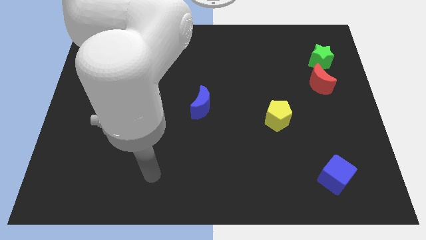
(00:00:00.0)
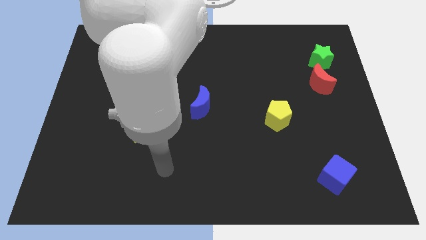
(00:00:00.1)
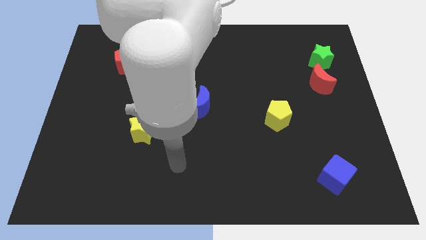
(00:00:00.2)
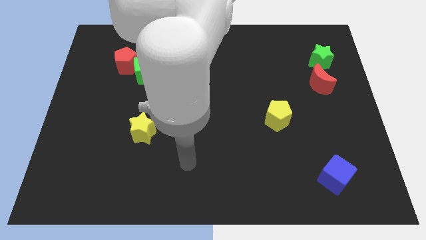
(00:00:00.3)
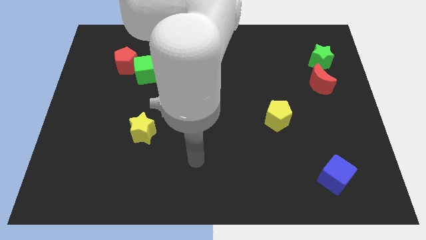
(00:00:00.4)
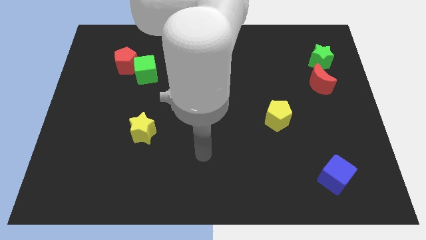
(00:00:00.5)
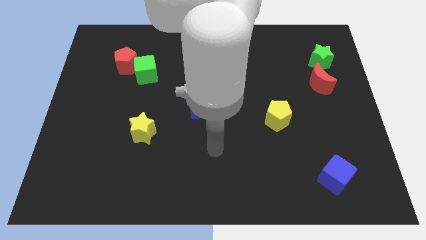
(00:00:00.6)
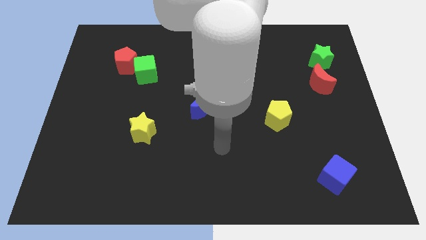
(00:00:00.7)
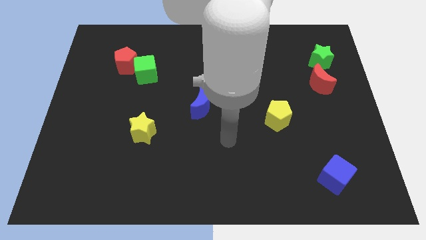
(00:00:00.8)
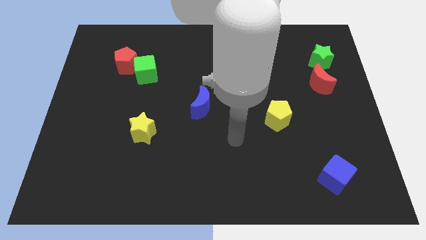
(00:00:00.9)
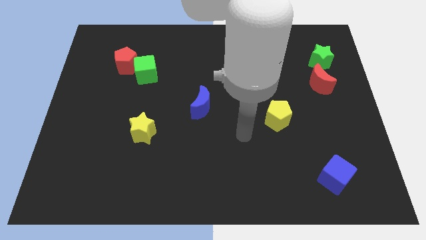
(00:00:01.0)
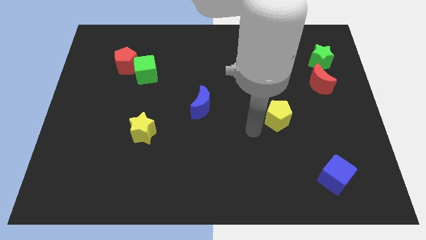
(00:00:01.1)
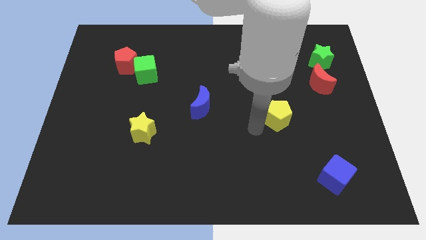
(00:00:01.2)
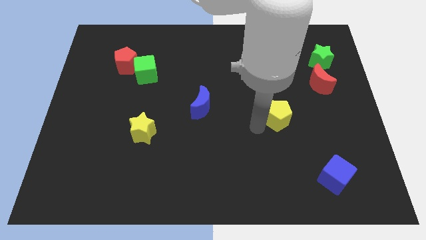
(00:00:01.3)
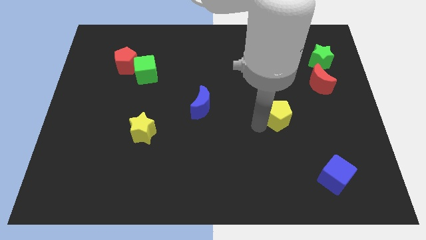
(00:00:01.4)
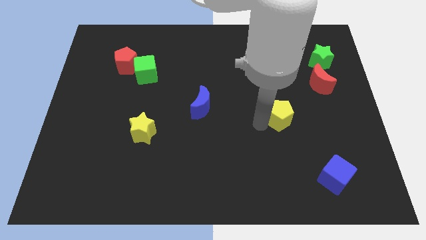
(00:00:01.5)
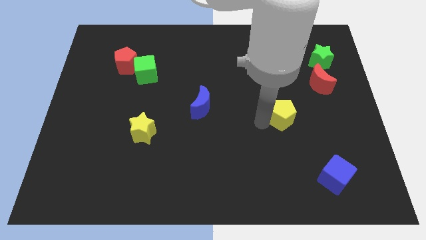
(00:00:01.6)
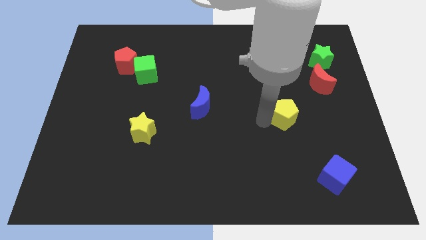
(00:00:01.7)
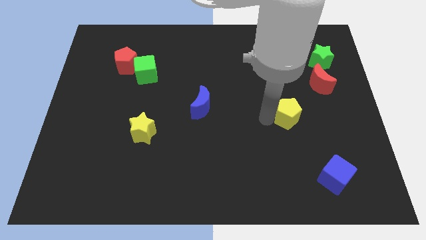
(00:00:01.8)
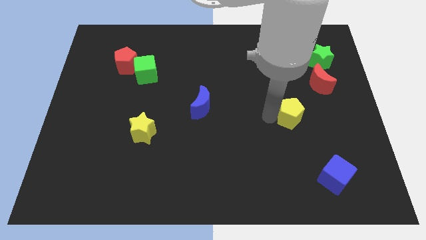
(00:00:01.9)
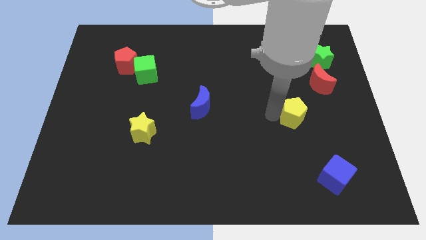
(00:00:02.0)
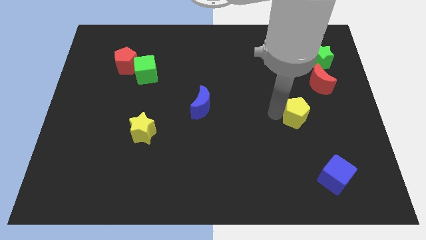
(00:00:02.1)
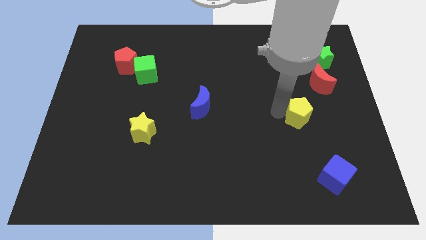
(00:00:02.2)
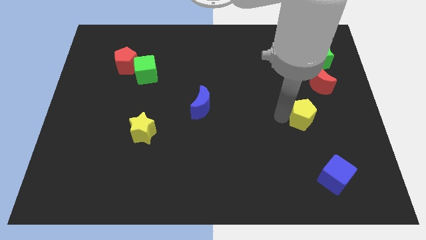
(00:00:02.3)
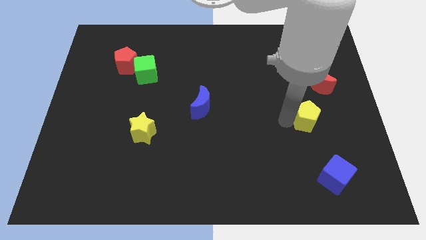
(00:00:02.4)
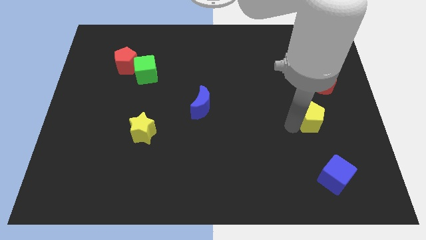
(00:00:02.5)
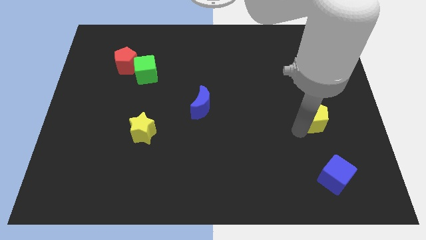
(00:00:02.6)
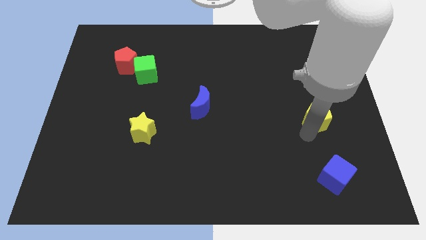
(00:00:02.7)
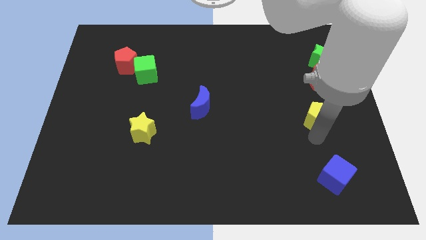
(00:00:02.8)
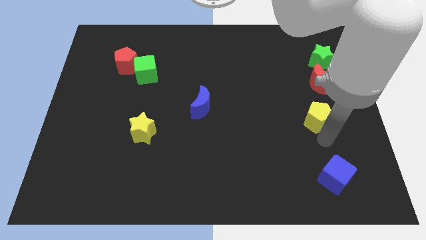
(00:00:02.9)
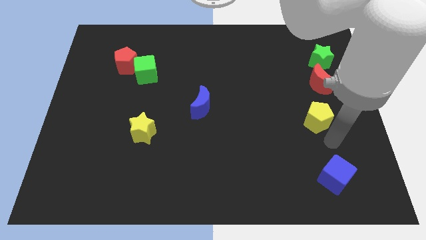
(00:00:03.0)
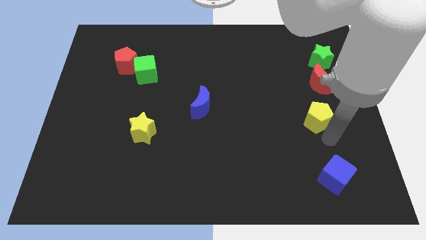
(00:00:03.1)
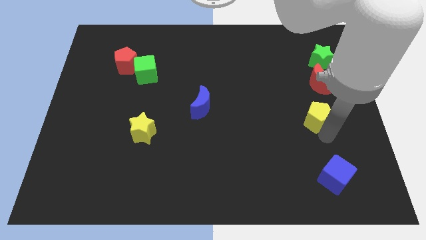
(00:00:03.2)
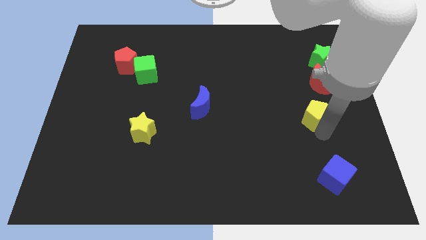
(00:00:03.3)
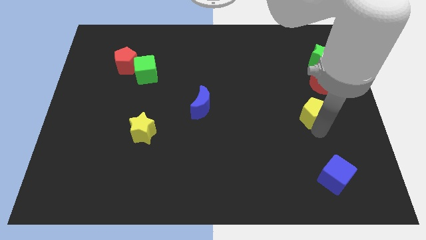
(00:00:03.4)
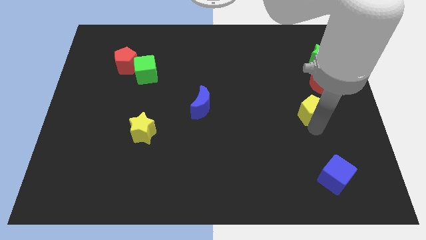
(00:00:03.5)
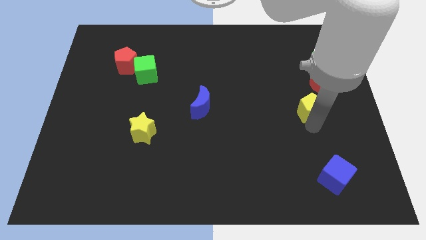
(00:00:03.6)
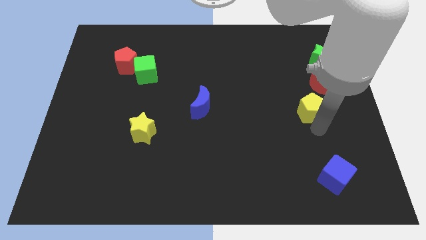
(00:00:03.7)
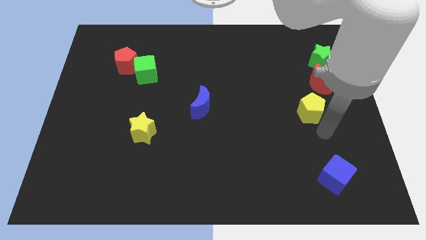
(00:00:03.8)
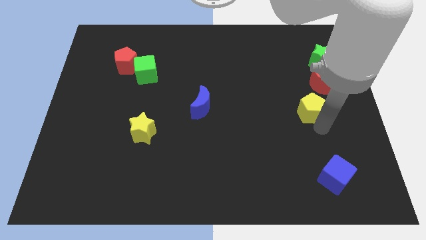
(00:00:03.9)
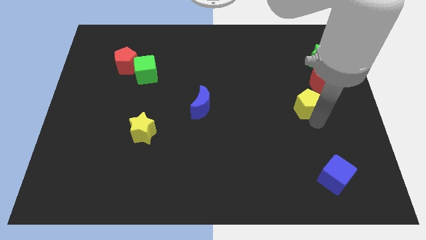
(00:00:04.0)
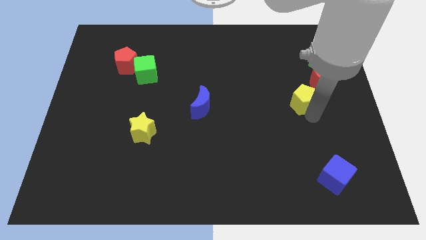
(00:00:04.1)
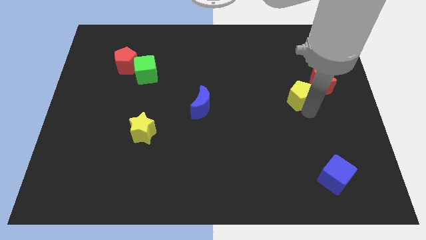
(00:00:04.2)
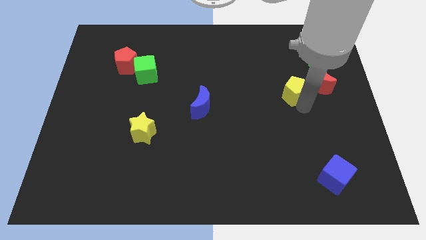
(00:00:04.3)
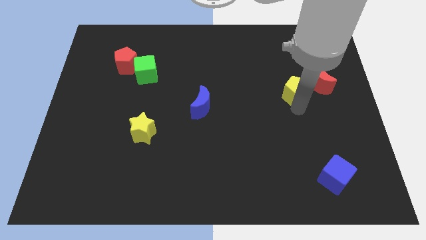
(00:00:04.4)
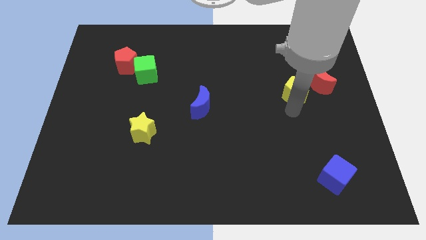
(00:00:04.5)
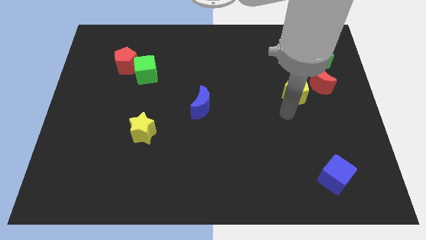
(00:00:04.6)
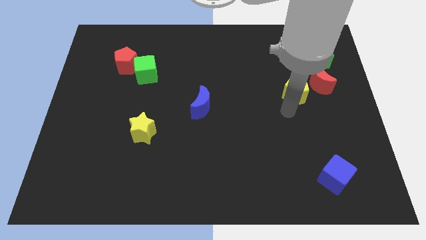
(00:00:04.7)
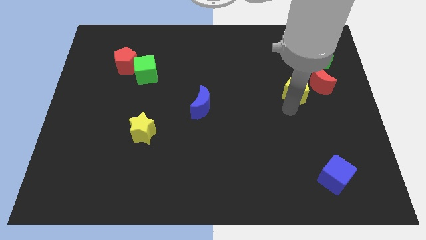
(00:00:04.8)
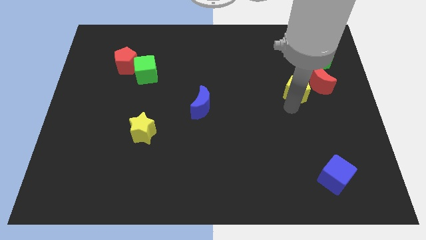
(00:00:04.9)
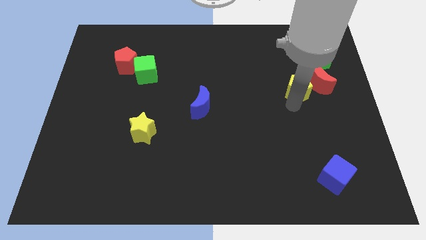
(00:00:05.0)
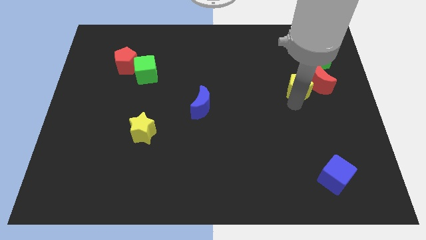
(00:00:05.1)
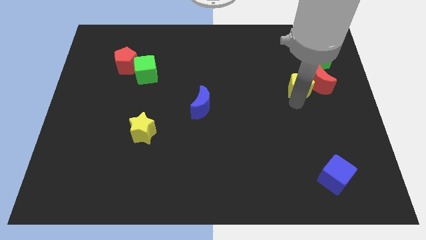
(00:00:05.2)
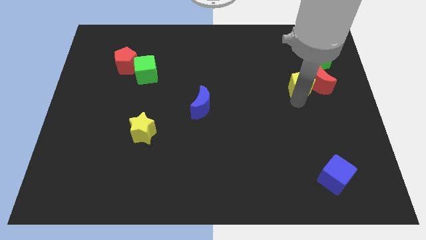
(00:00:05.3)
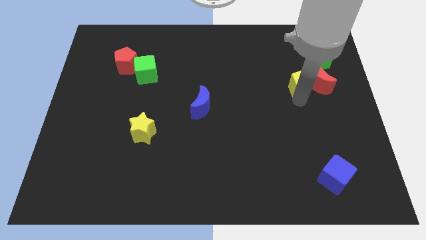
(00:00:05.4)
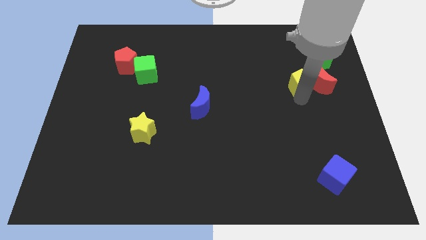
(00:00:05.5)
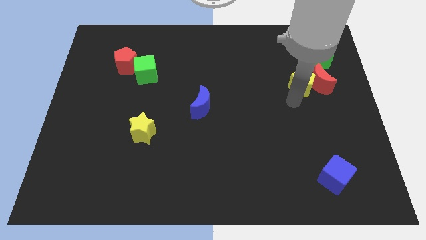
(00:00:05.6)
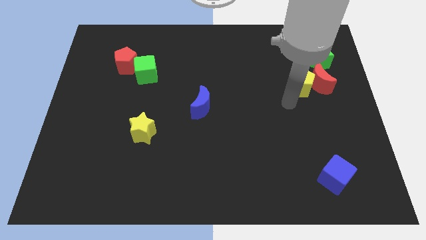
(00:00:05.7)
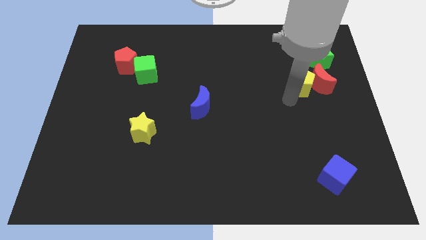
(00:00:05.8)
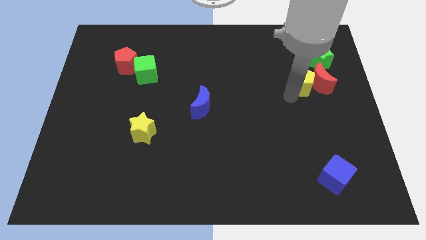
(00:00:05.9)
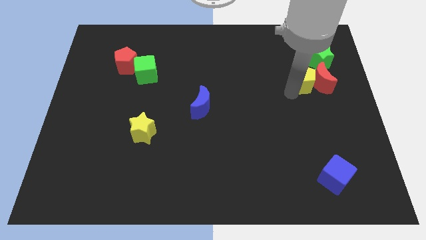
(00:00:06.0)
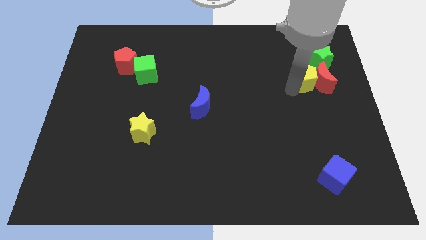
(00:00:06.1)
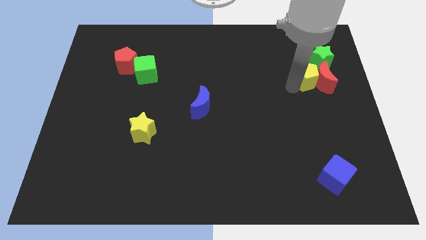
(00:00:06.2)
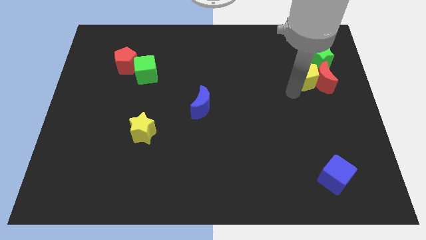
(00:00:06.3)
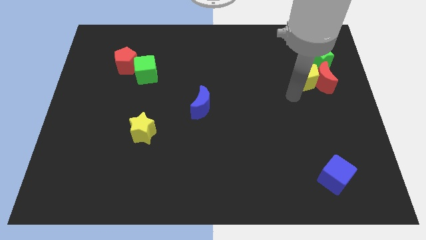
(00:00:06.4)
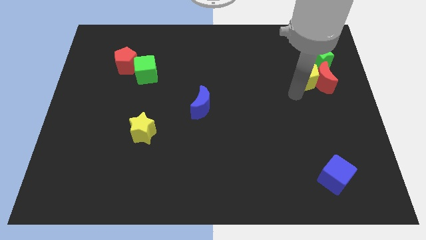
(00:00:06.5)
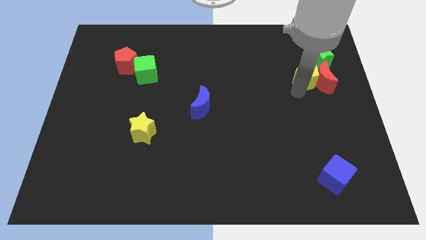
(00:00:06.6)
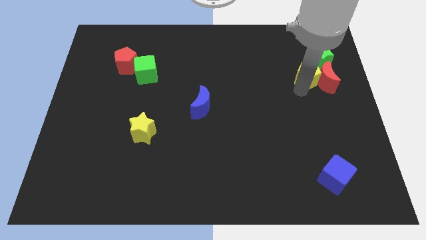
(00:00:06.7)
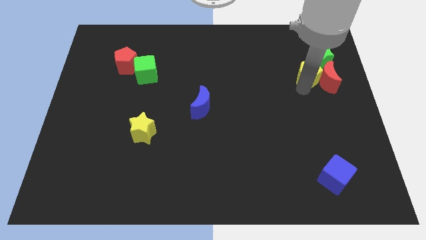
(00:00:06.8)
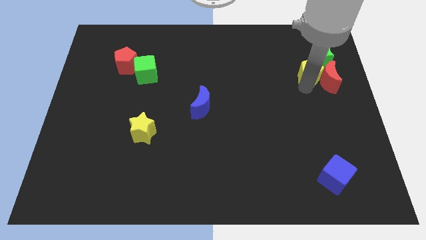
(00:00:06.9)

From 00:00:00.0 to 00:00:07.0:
slide the yellow pentagon towards the green star

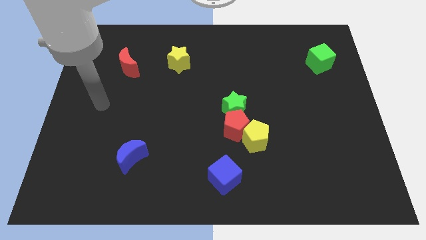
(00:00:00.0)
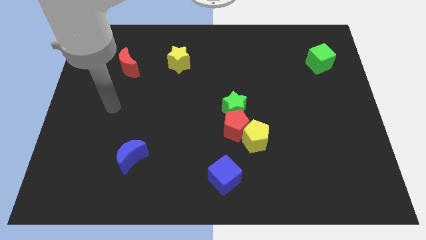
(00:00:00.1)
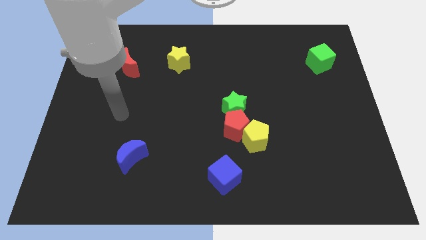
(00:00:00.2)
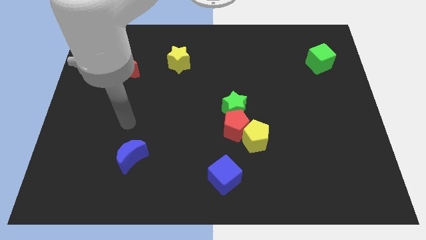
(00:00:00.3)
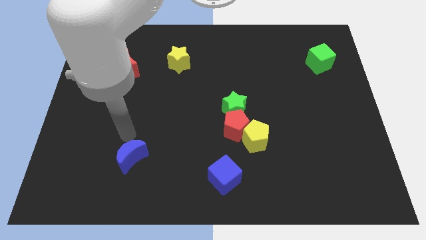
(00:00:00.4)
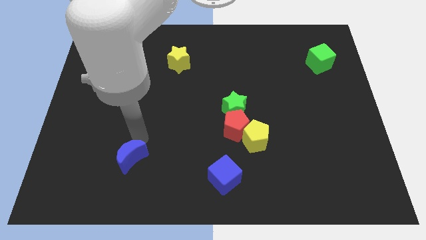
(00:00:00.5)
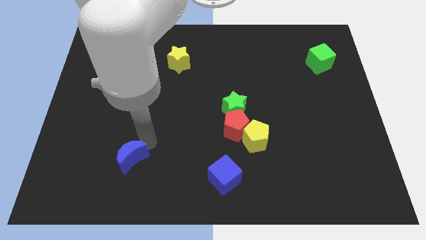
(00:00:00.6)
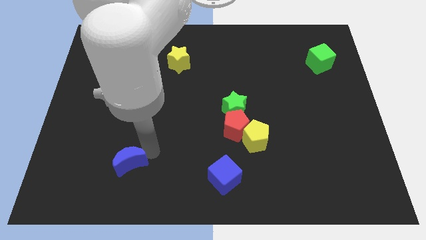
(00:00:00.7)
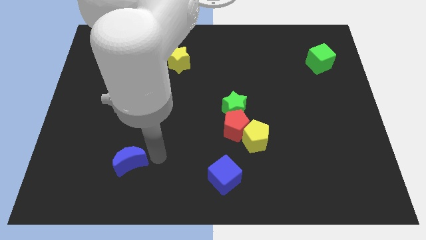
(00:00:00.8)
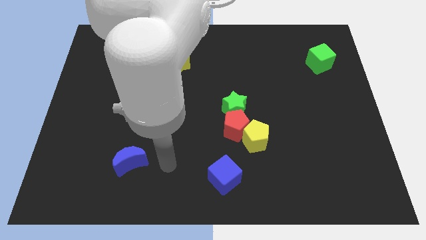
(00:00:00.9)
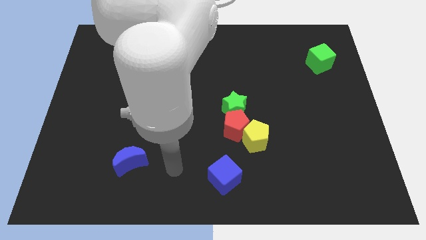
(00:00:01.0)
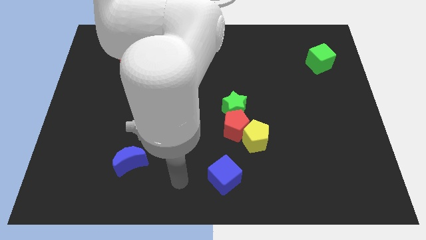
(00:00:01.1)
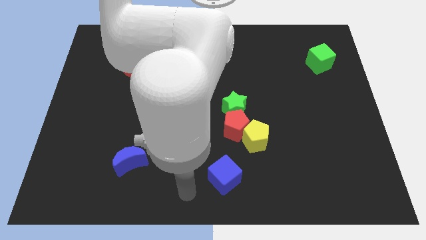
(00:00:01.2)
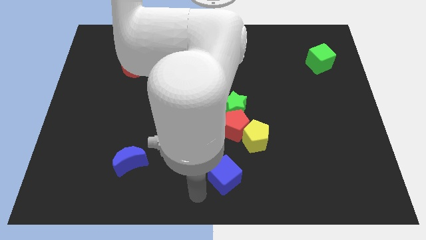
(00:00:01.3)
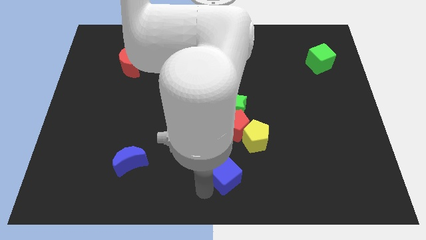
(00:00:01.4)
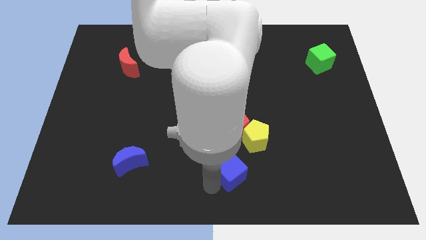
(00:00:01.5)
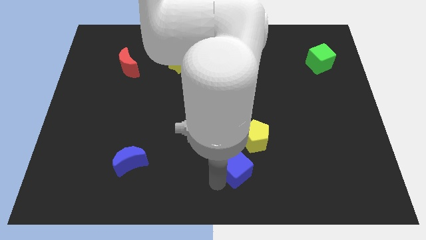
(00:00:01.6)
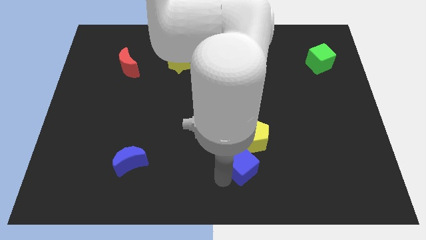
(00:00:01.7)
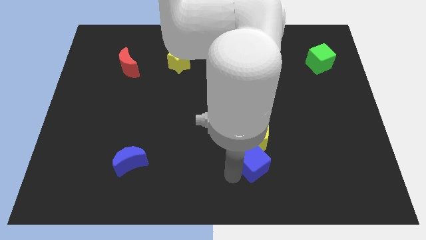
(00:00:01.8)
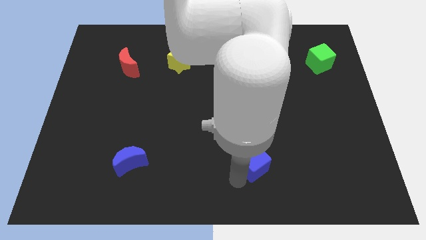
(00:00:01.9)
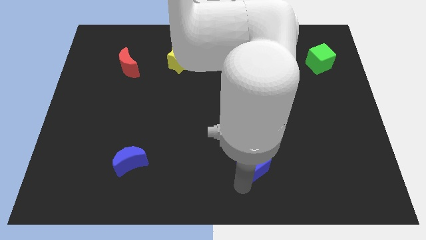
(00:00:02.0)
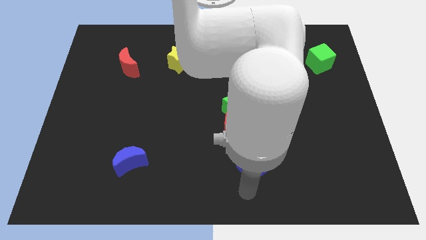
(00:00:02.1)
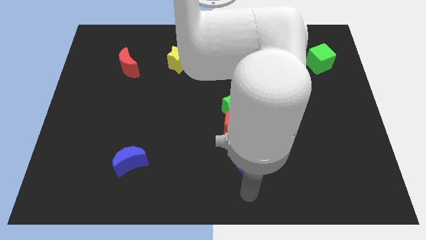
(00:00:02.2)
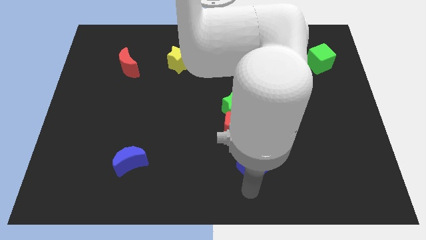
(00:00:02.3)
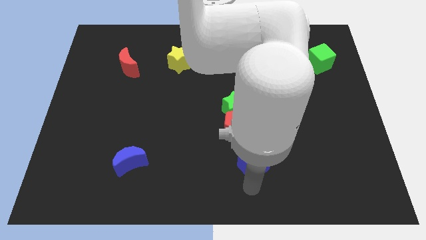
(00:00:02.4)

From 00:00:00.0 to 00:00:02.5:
slide the blue cube next to the yellow pentagon
